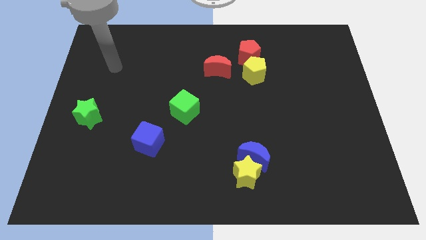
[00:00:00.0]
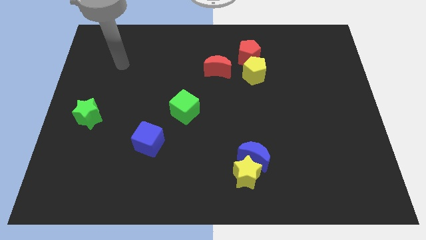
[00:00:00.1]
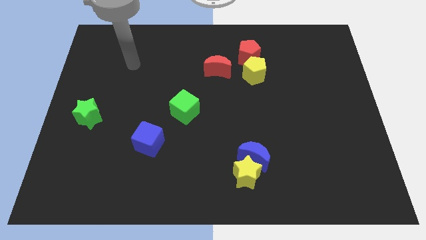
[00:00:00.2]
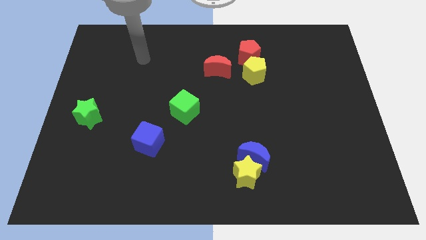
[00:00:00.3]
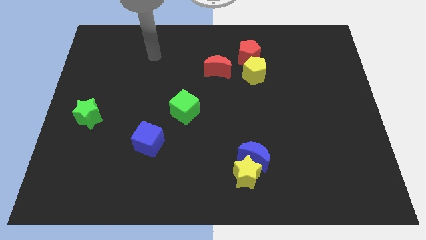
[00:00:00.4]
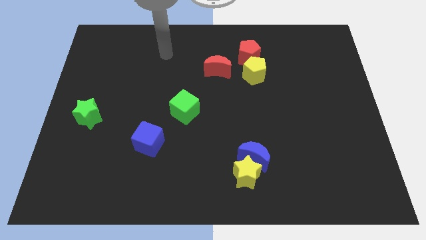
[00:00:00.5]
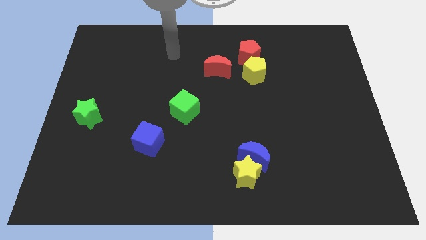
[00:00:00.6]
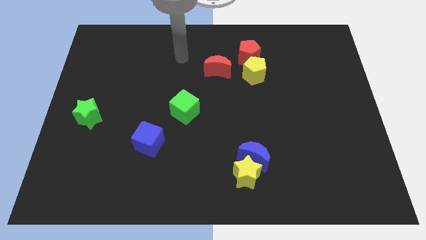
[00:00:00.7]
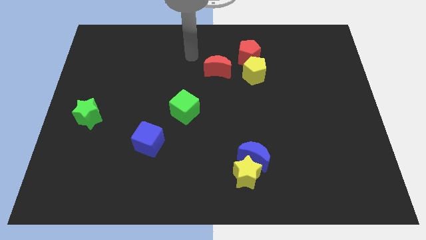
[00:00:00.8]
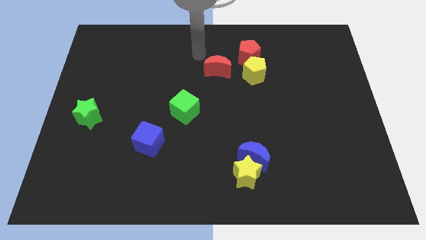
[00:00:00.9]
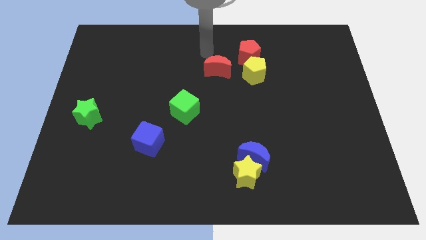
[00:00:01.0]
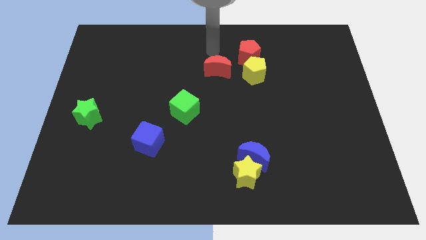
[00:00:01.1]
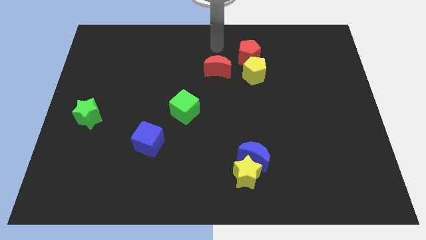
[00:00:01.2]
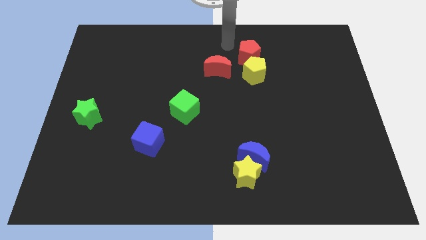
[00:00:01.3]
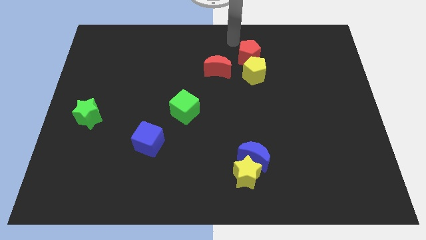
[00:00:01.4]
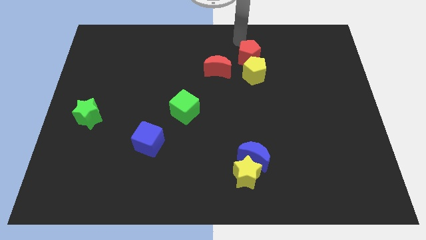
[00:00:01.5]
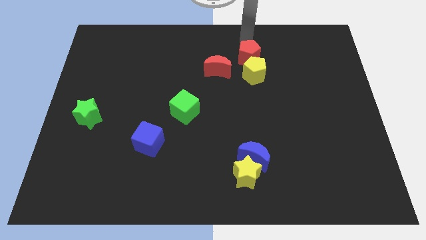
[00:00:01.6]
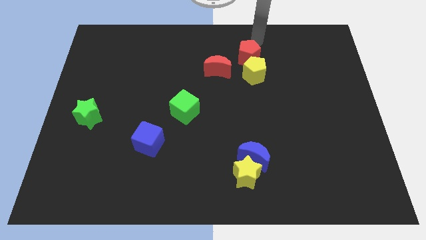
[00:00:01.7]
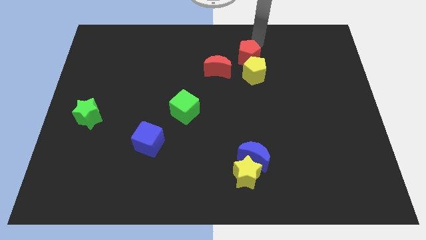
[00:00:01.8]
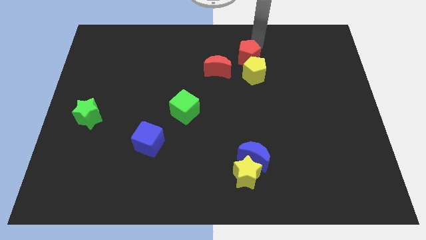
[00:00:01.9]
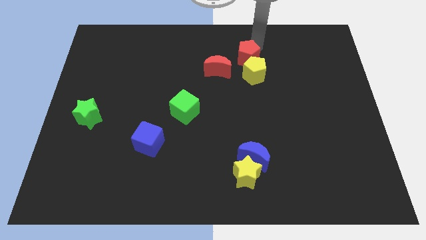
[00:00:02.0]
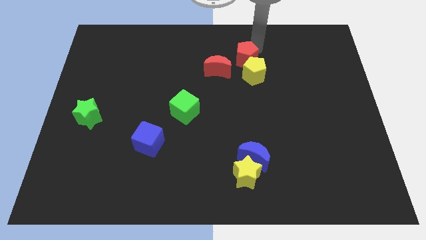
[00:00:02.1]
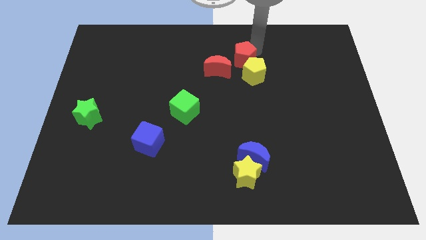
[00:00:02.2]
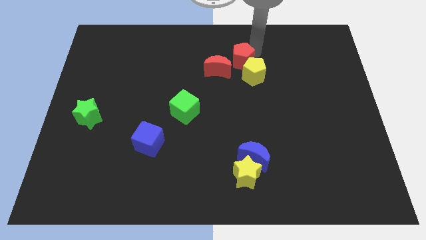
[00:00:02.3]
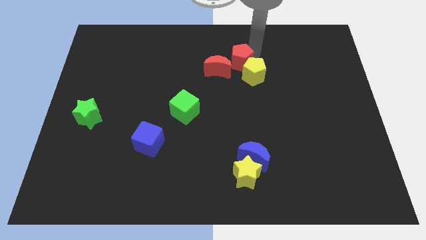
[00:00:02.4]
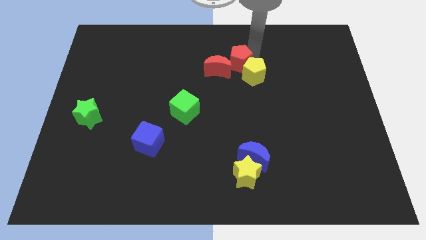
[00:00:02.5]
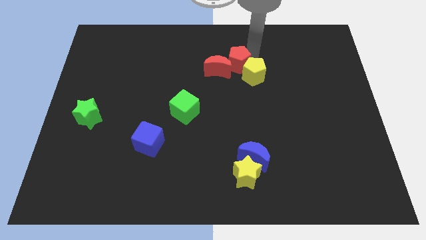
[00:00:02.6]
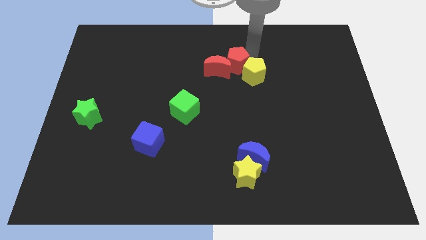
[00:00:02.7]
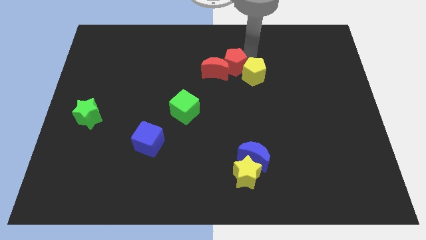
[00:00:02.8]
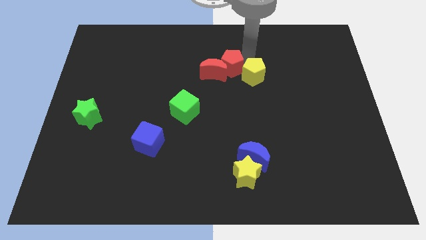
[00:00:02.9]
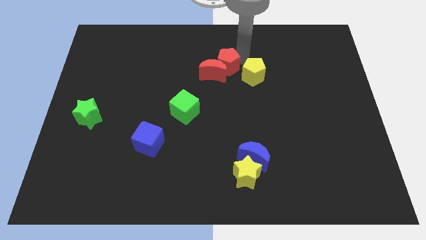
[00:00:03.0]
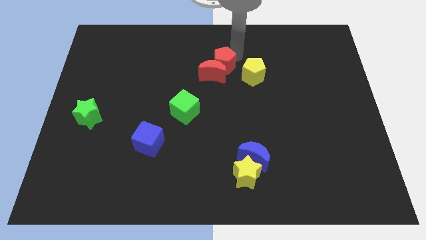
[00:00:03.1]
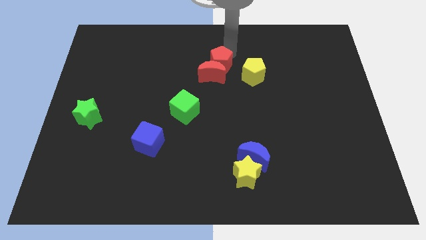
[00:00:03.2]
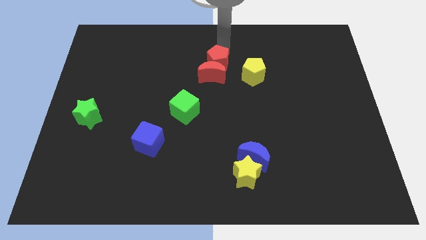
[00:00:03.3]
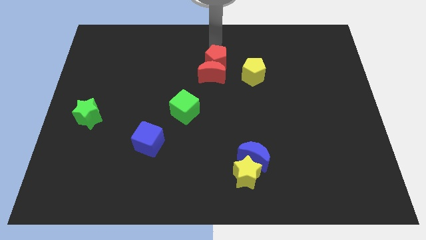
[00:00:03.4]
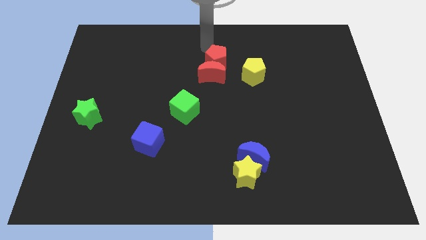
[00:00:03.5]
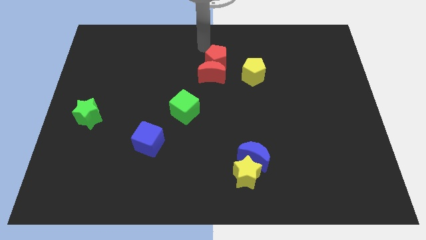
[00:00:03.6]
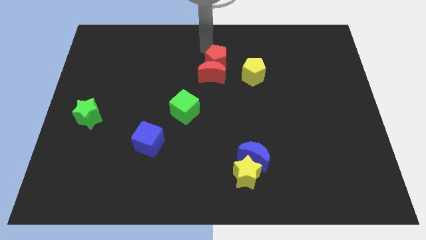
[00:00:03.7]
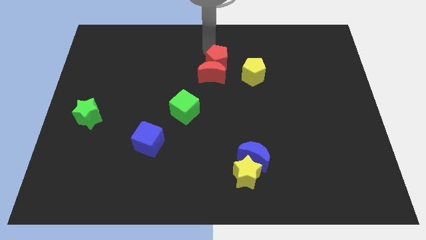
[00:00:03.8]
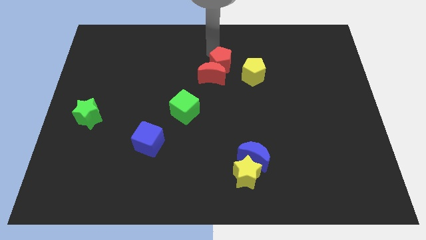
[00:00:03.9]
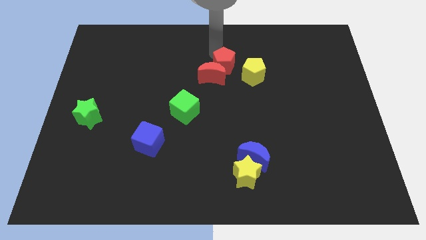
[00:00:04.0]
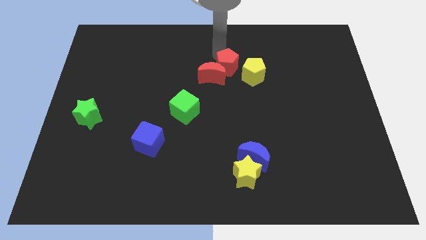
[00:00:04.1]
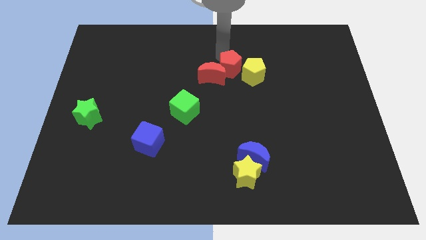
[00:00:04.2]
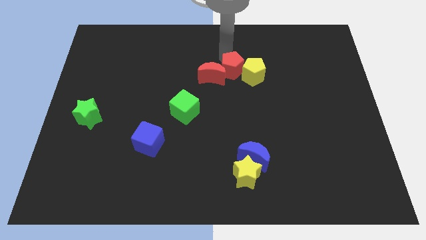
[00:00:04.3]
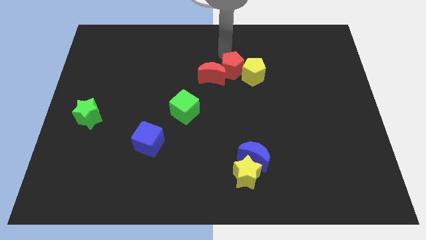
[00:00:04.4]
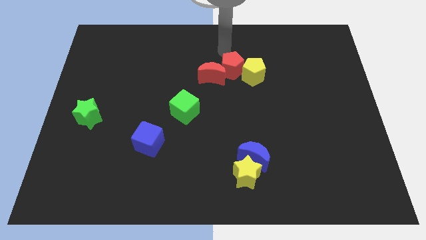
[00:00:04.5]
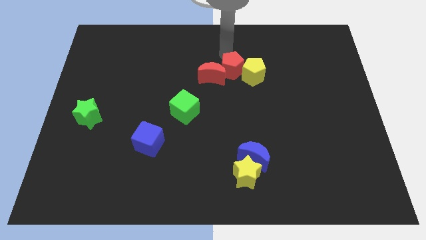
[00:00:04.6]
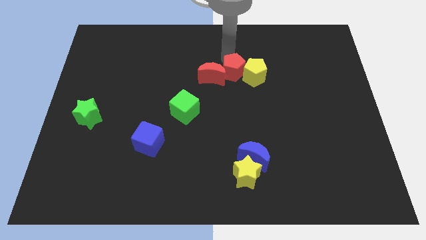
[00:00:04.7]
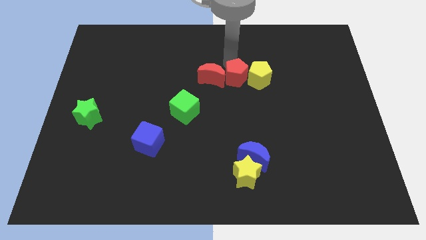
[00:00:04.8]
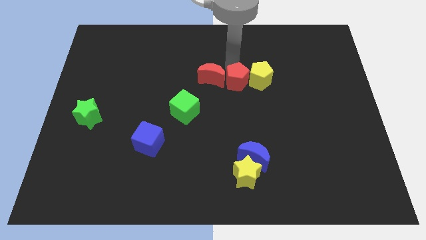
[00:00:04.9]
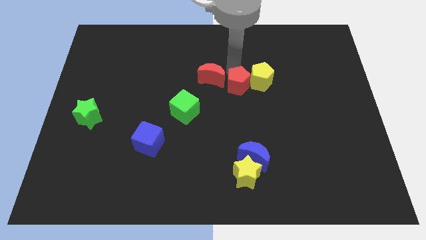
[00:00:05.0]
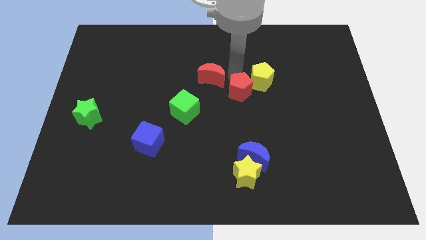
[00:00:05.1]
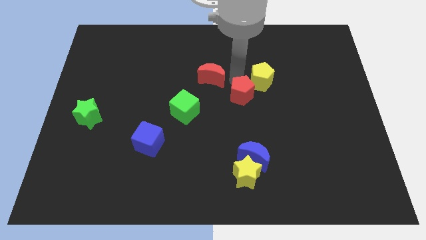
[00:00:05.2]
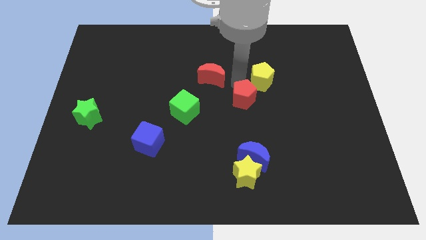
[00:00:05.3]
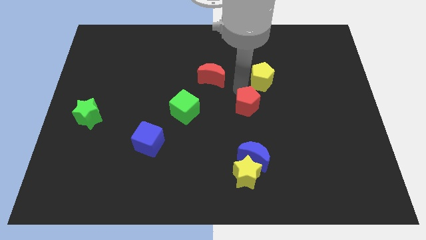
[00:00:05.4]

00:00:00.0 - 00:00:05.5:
move the red pentagon to the top side of the blue moon

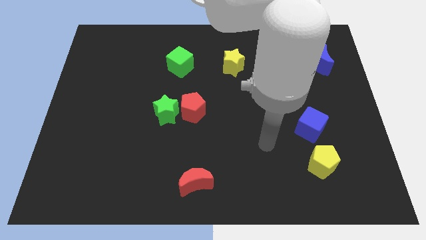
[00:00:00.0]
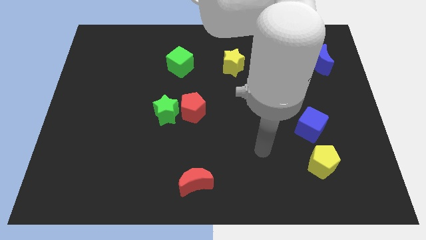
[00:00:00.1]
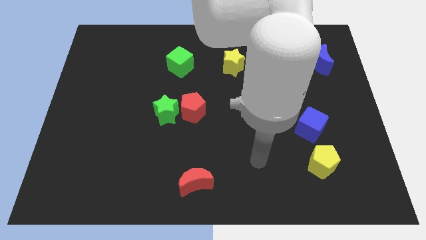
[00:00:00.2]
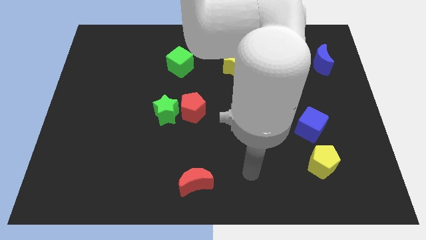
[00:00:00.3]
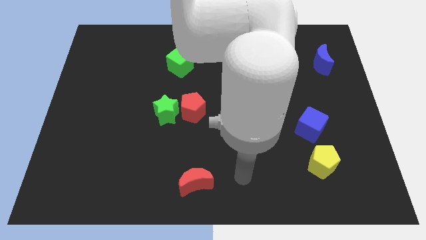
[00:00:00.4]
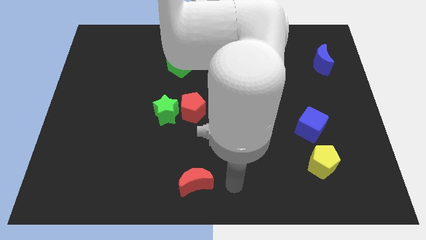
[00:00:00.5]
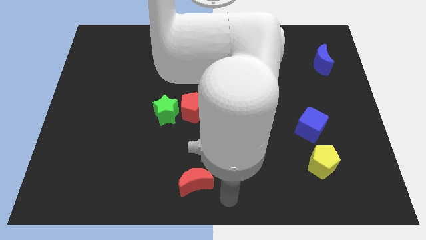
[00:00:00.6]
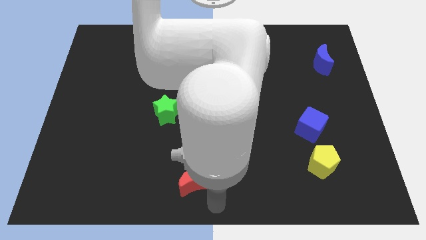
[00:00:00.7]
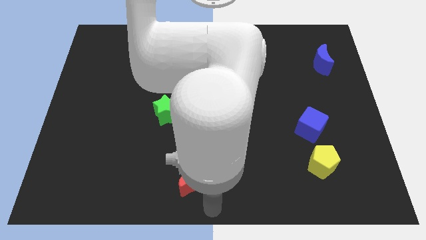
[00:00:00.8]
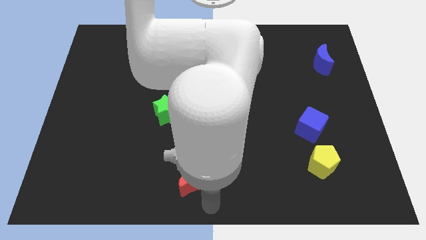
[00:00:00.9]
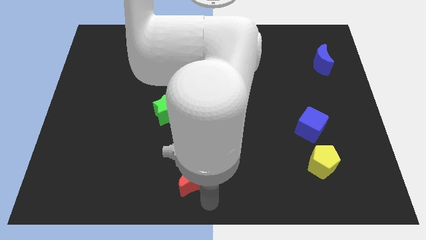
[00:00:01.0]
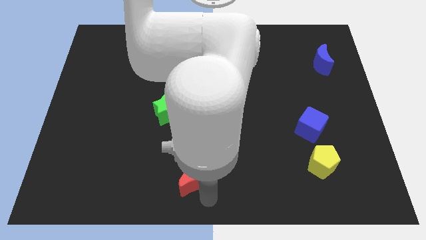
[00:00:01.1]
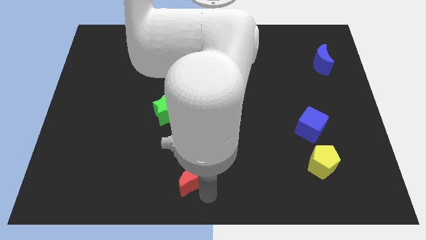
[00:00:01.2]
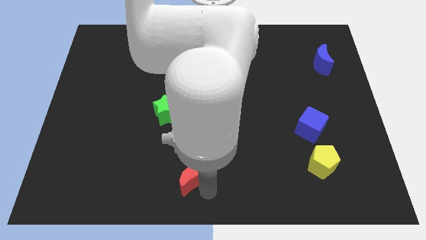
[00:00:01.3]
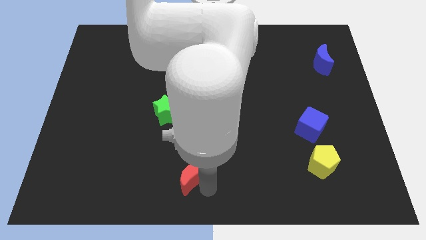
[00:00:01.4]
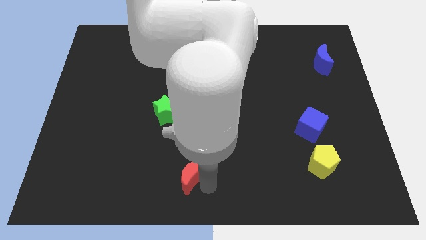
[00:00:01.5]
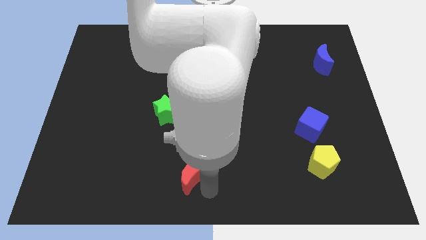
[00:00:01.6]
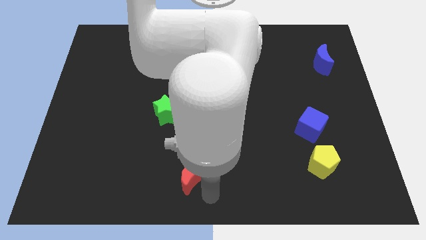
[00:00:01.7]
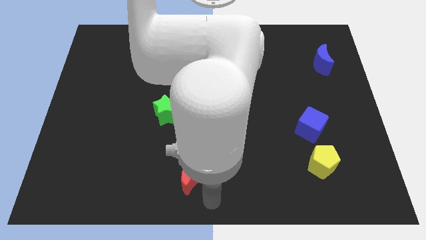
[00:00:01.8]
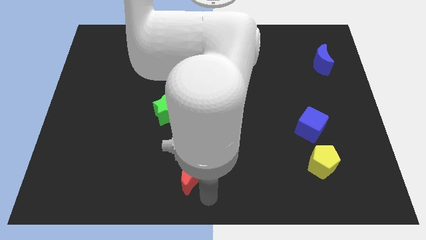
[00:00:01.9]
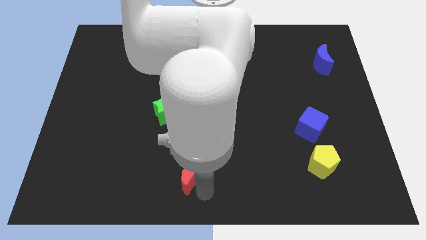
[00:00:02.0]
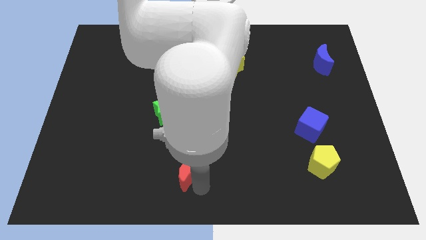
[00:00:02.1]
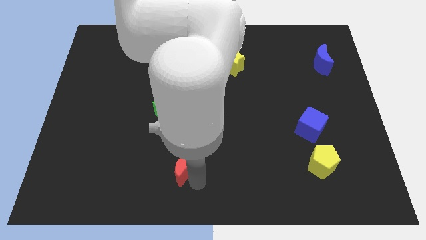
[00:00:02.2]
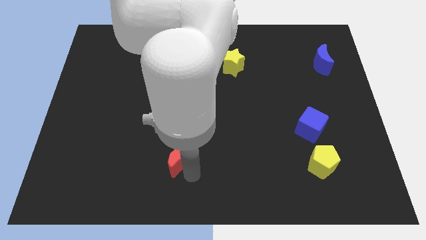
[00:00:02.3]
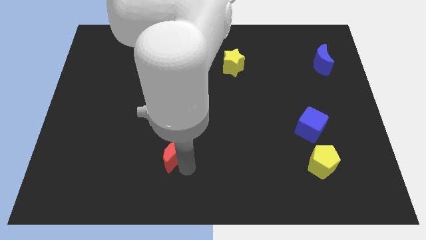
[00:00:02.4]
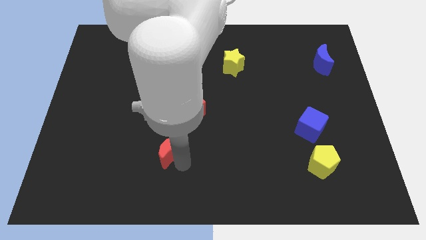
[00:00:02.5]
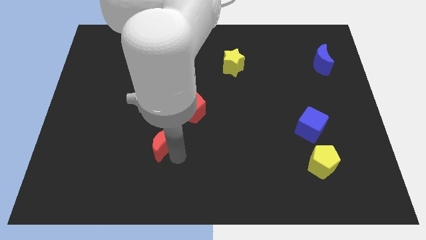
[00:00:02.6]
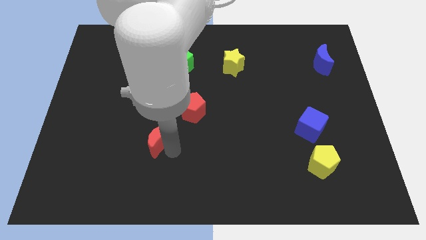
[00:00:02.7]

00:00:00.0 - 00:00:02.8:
put the red moon diagonally down and to the left of the green star

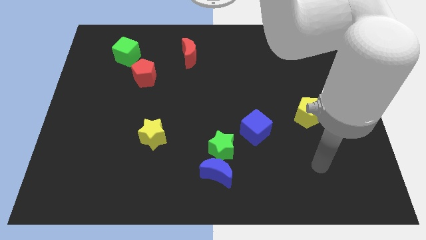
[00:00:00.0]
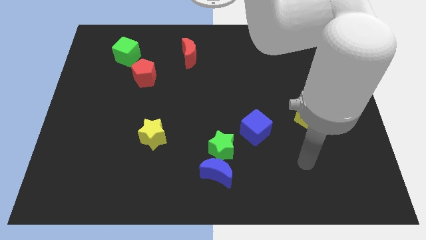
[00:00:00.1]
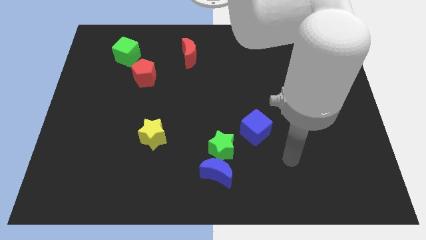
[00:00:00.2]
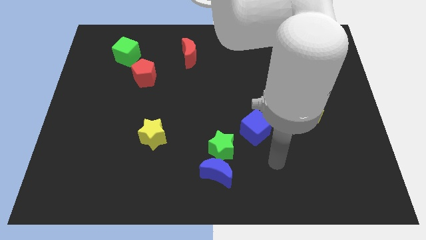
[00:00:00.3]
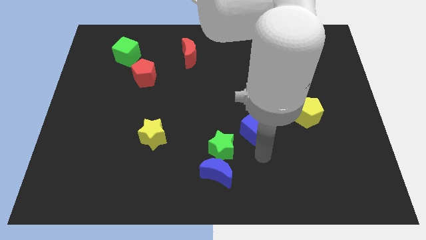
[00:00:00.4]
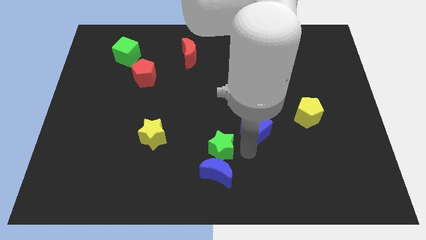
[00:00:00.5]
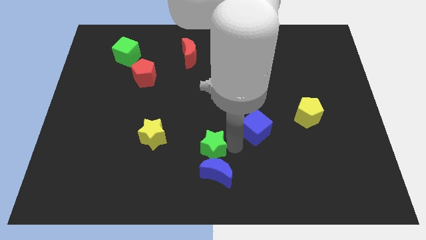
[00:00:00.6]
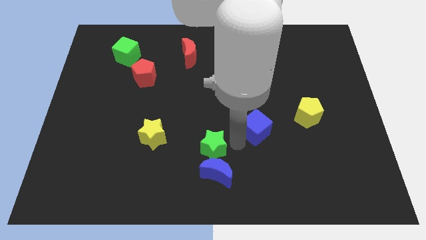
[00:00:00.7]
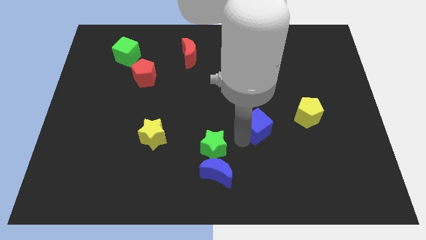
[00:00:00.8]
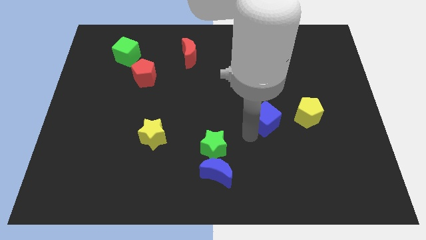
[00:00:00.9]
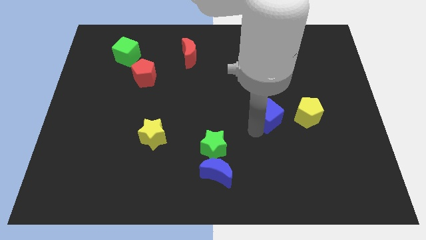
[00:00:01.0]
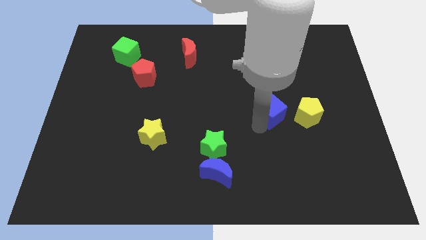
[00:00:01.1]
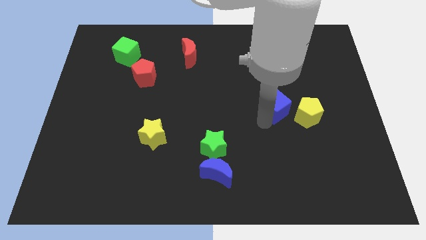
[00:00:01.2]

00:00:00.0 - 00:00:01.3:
push the blue cube diagonally up and to the left of the yellow pentagon
